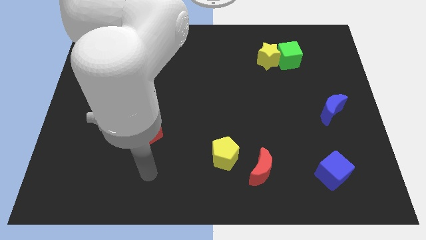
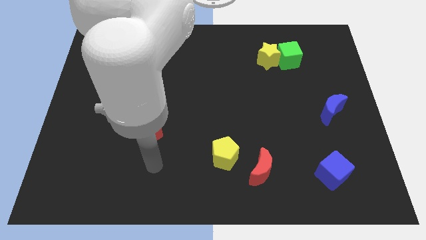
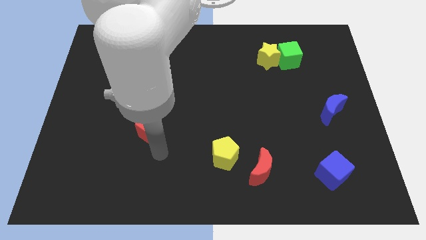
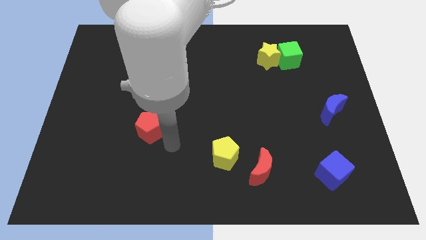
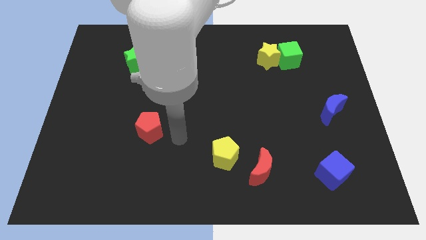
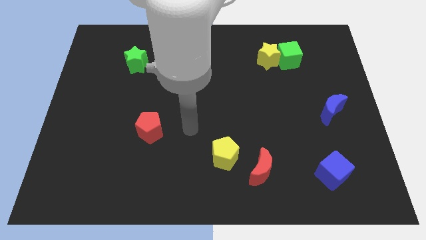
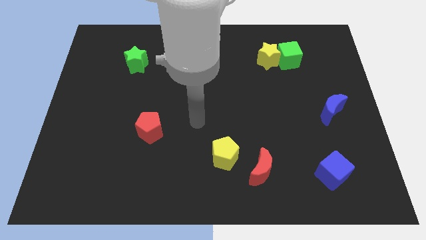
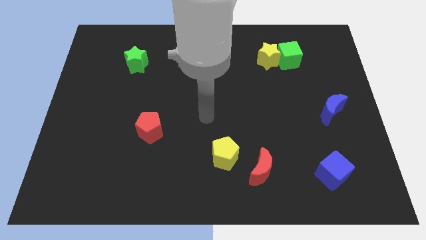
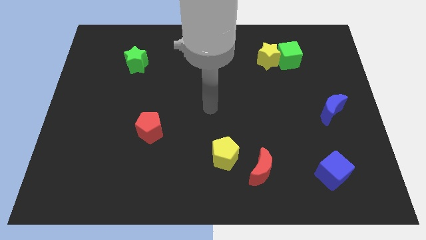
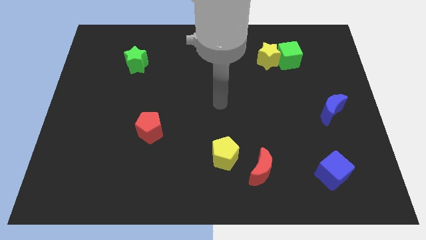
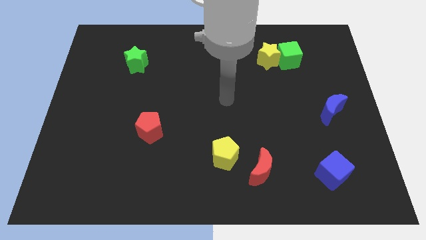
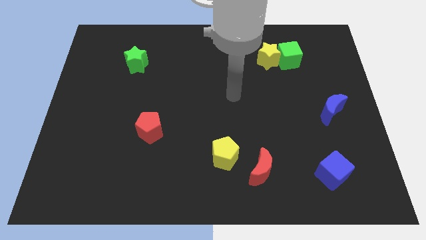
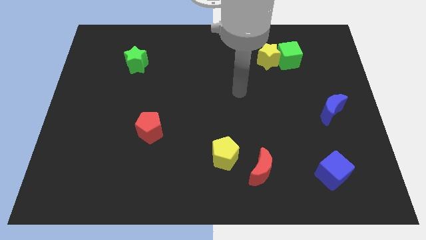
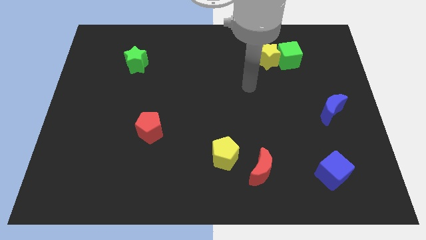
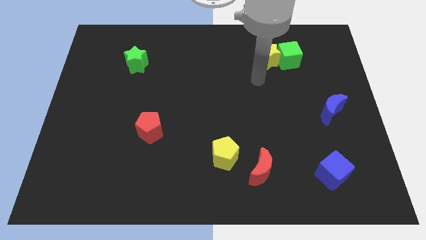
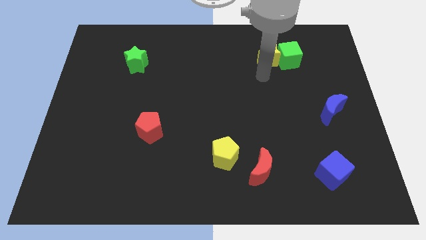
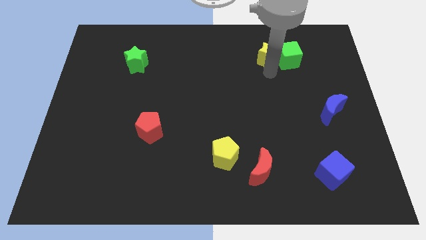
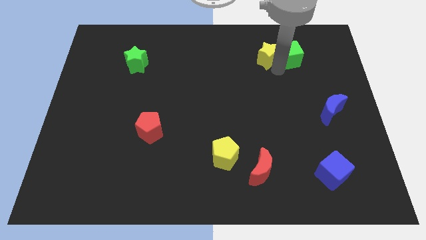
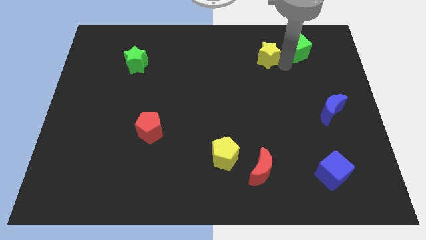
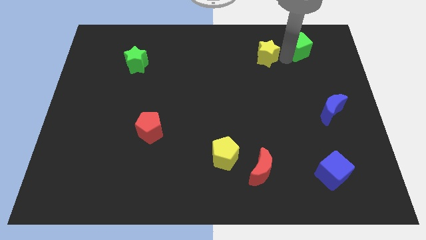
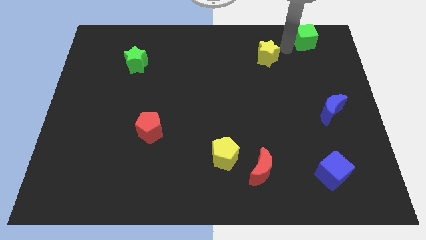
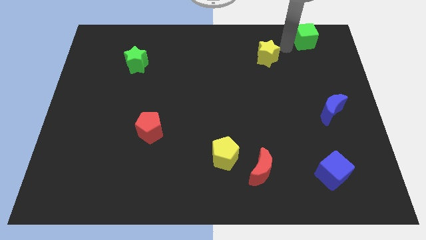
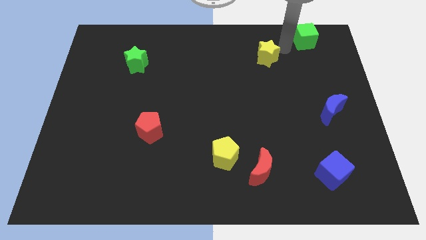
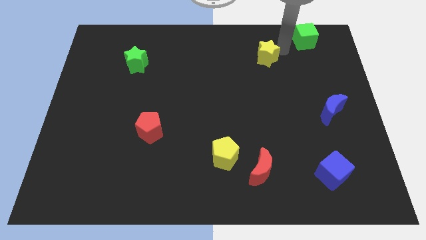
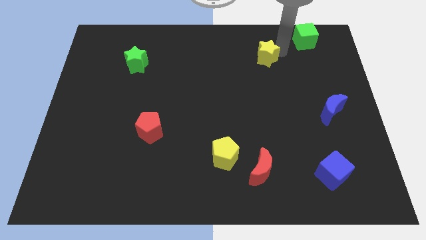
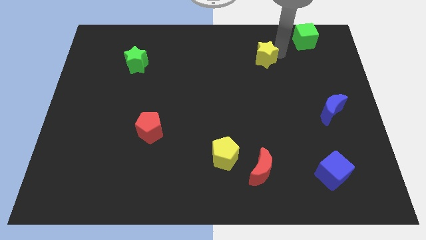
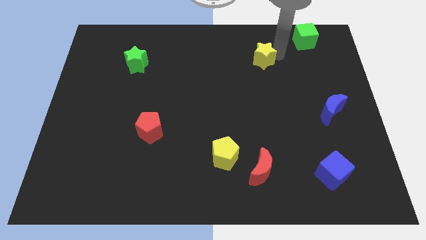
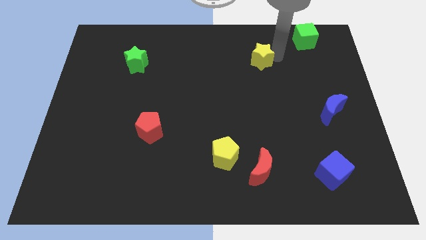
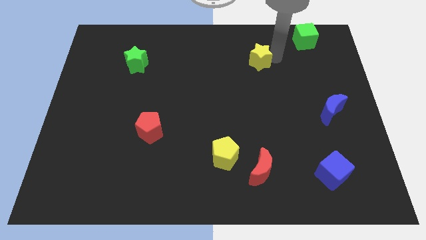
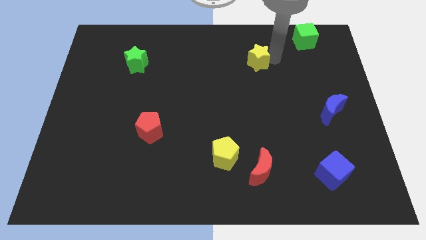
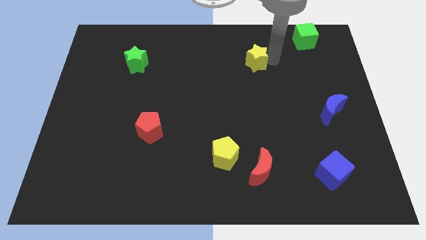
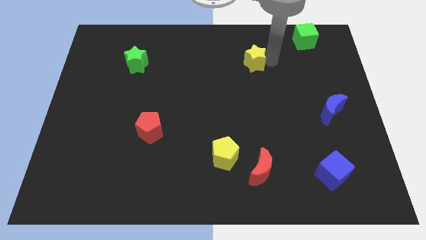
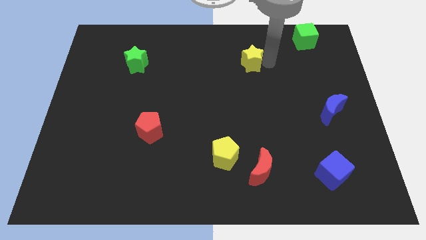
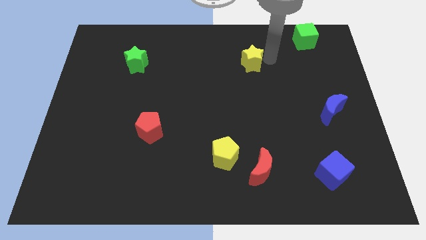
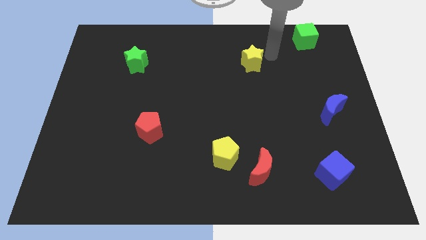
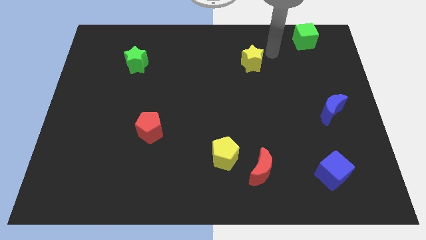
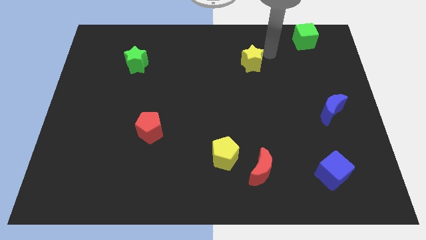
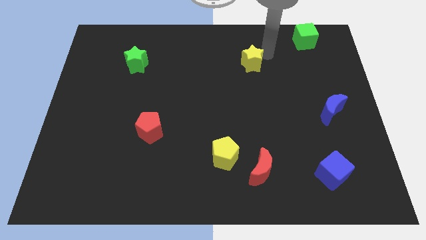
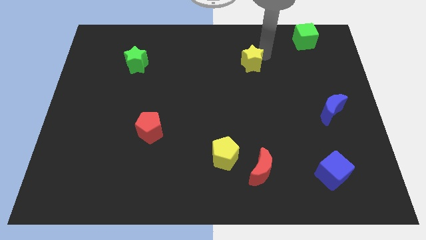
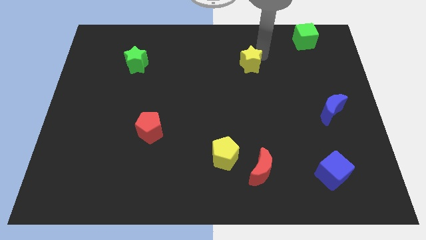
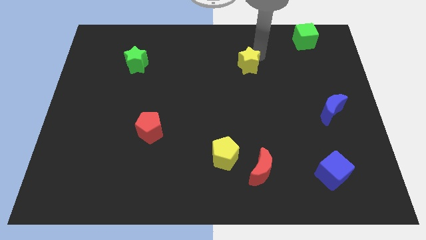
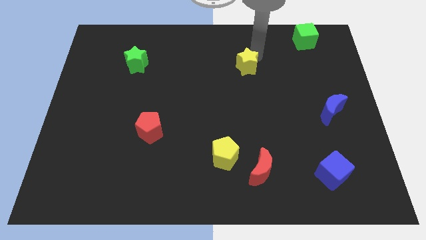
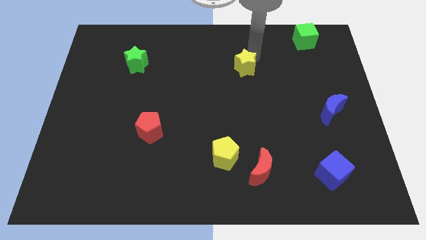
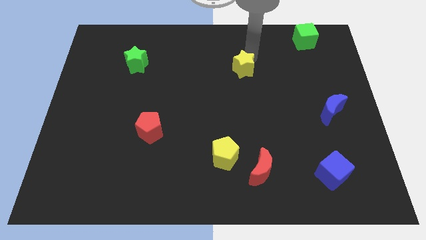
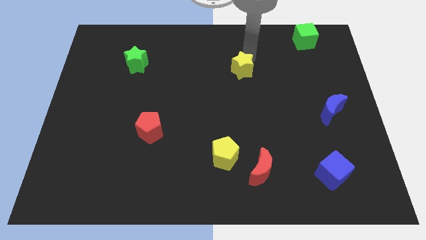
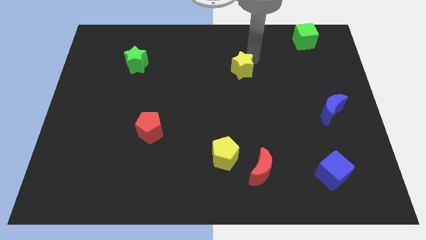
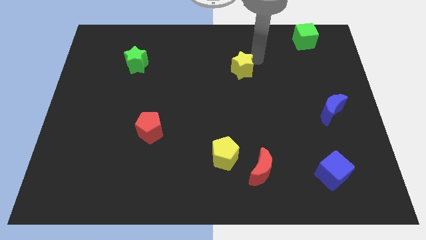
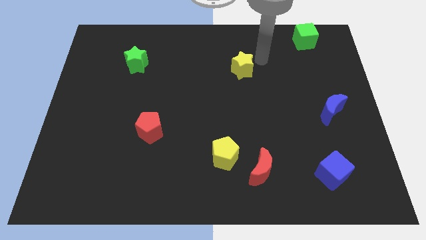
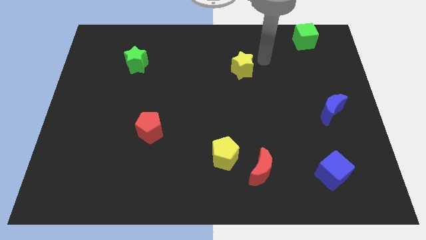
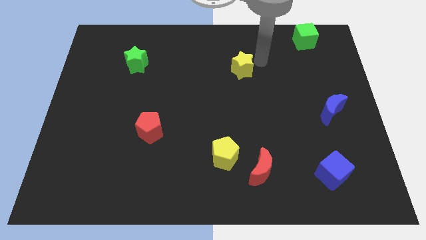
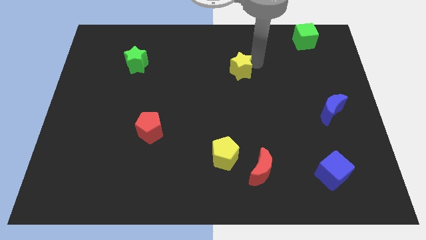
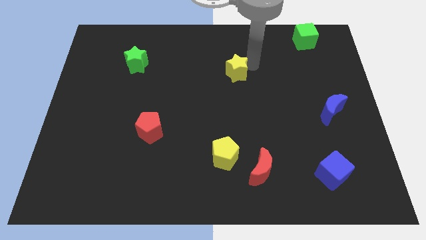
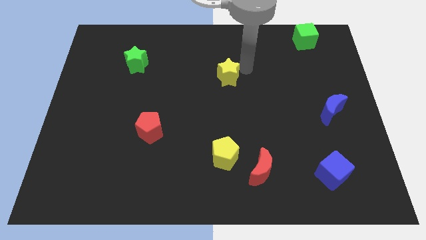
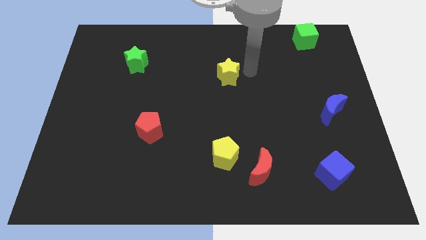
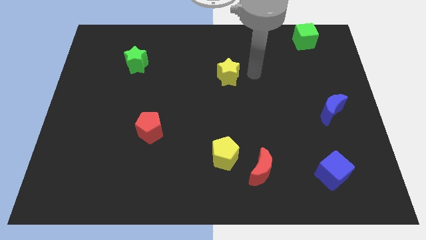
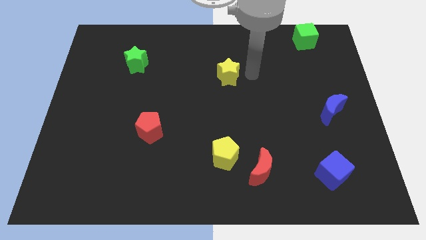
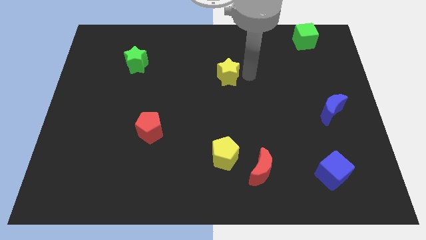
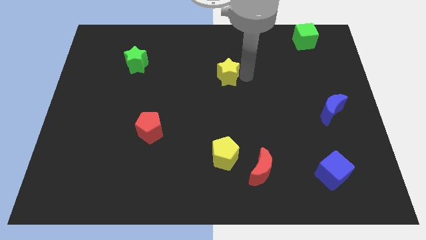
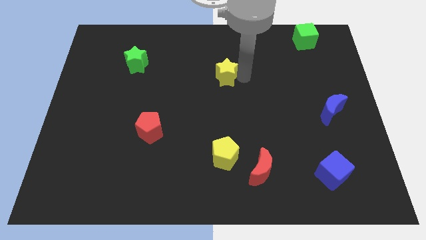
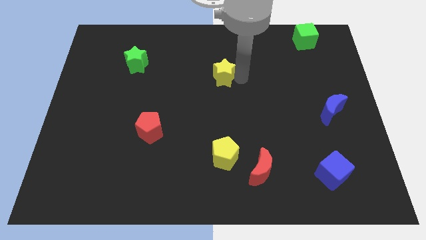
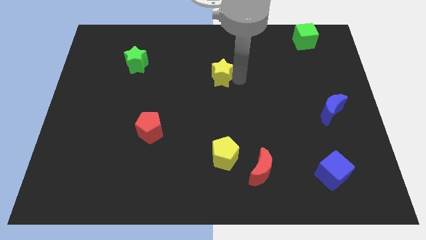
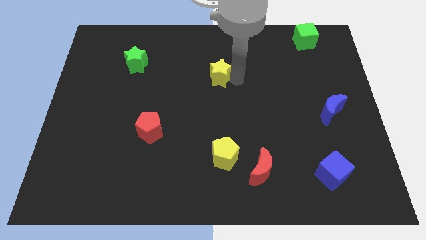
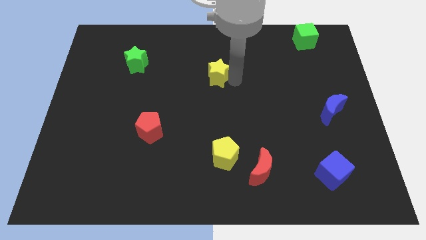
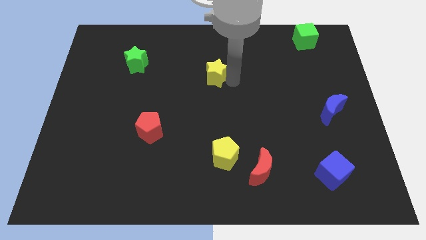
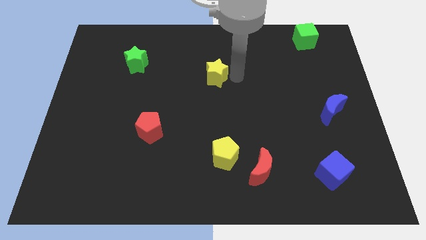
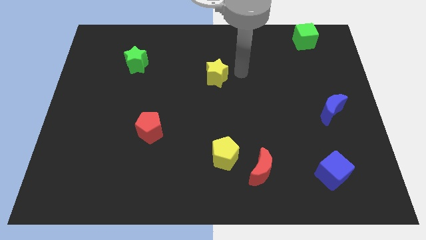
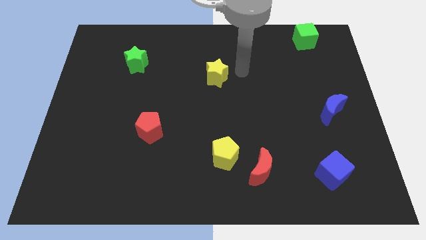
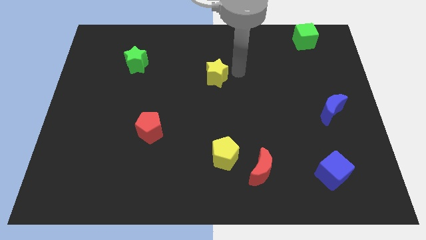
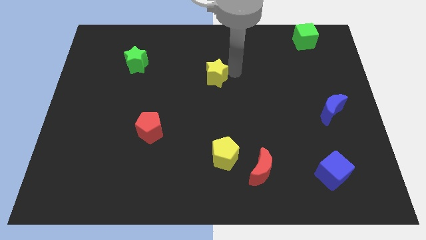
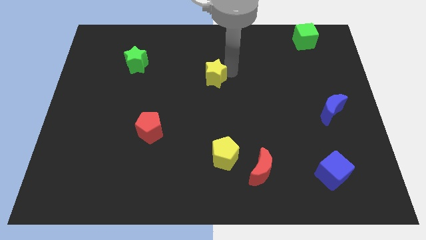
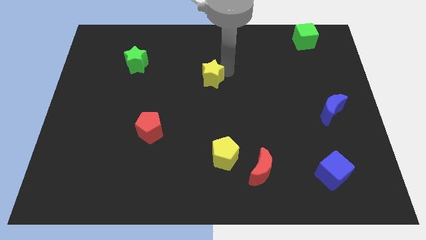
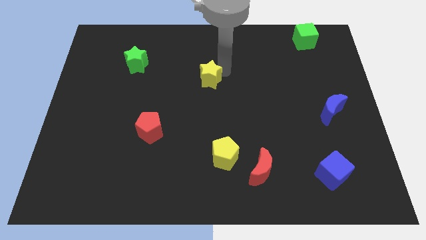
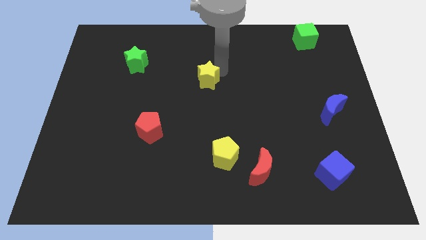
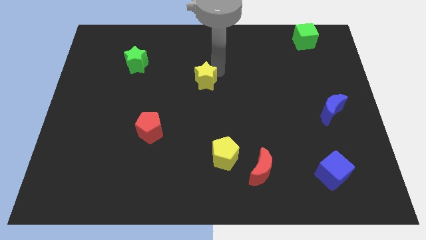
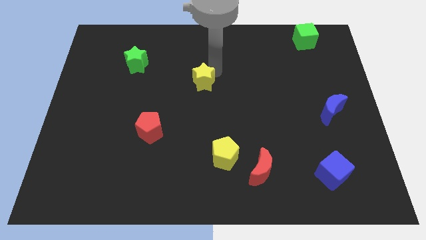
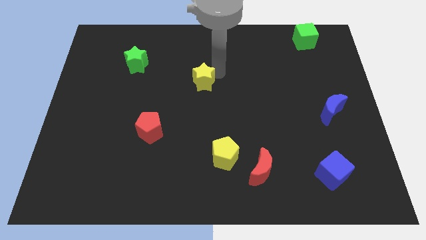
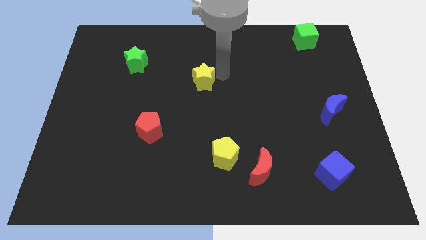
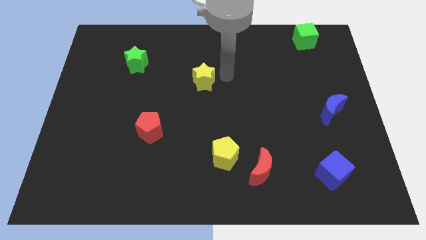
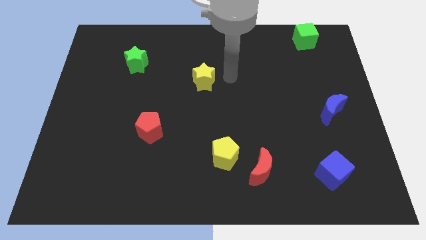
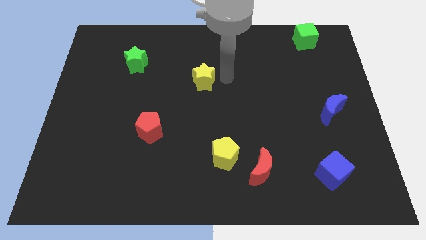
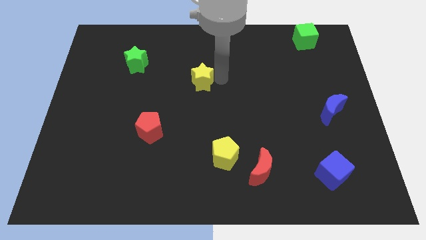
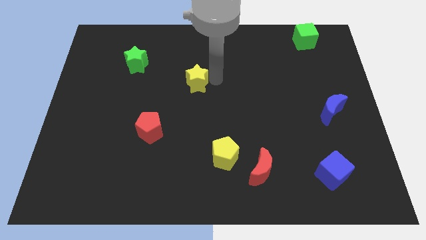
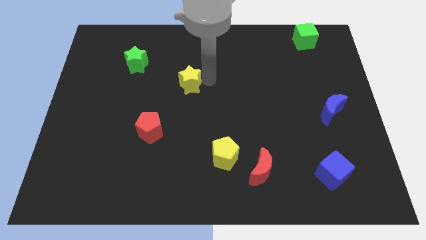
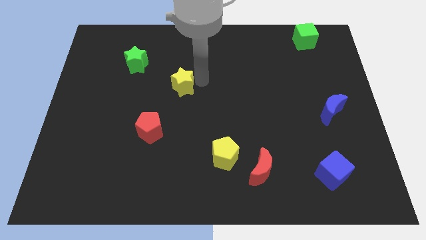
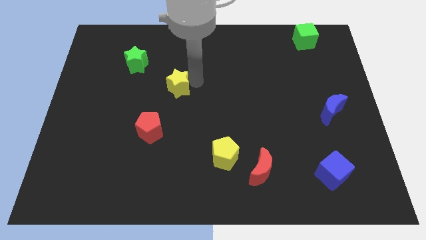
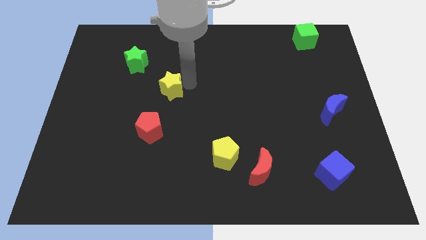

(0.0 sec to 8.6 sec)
move the yellow star to the top of the red pentagon
